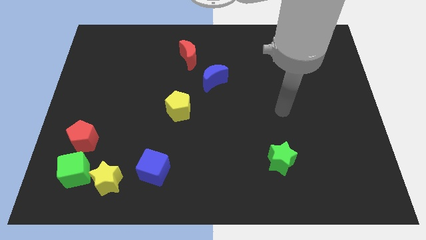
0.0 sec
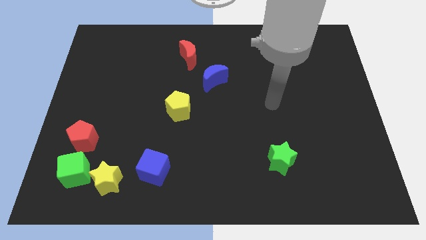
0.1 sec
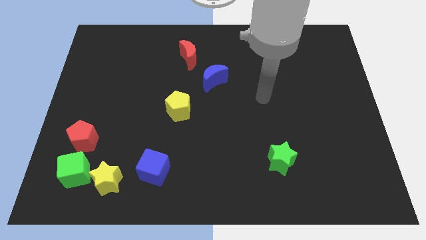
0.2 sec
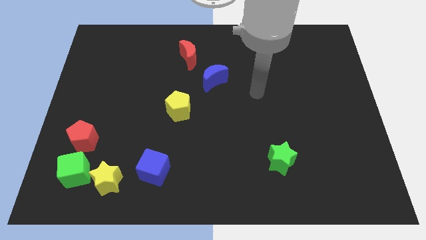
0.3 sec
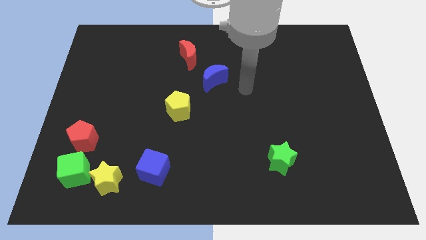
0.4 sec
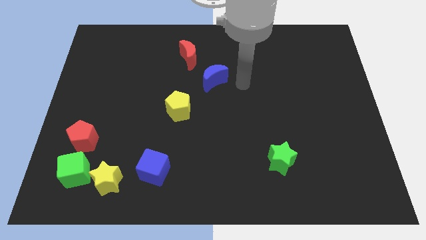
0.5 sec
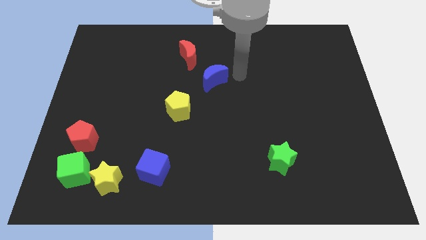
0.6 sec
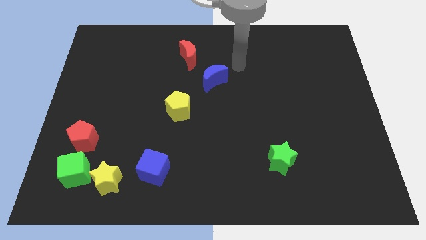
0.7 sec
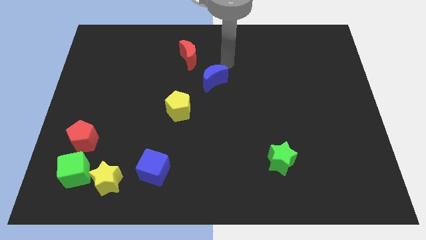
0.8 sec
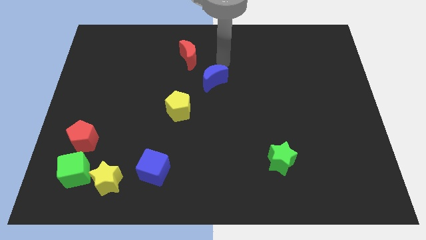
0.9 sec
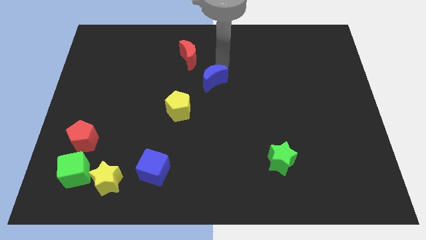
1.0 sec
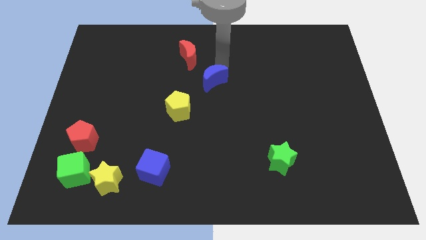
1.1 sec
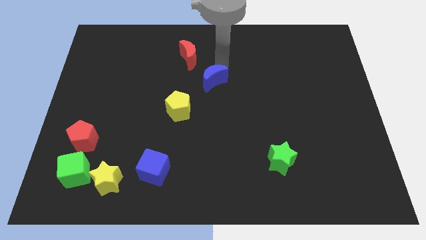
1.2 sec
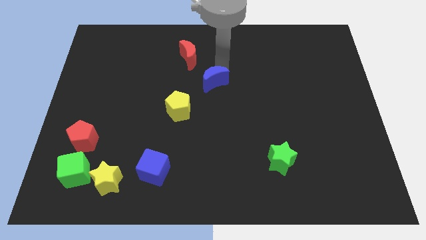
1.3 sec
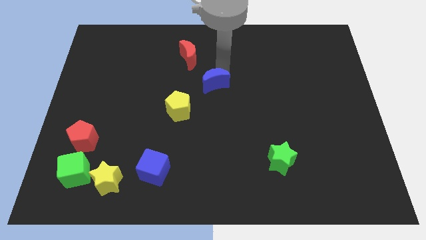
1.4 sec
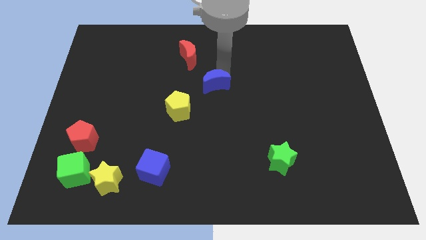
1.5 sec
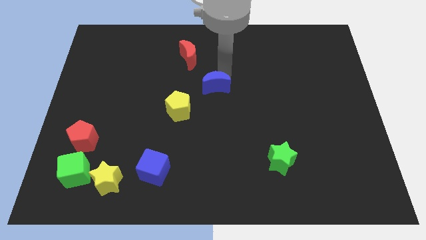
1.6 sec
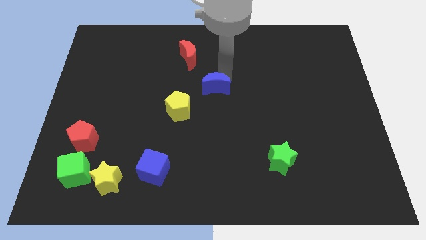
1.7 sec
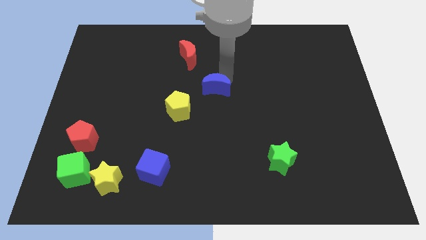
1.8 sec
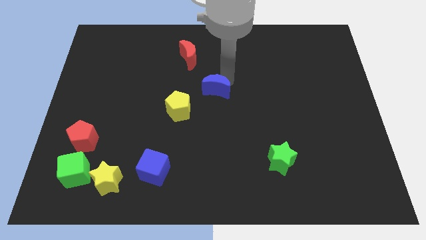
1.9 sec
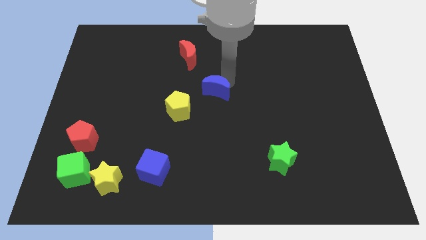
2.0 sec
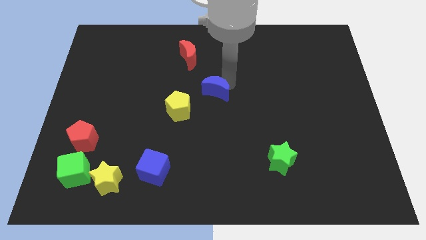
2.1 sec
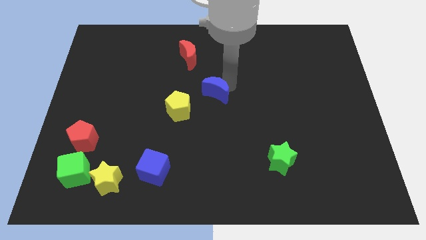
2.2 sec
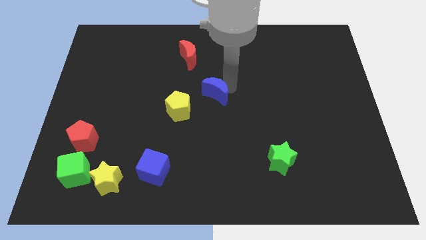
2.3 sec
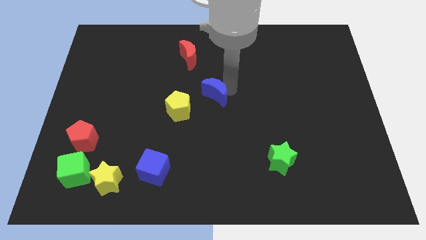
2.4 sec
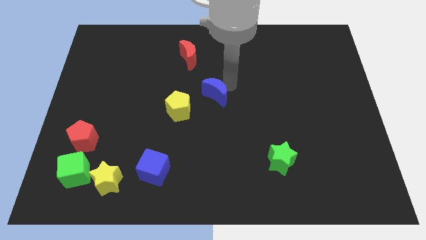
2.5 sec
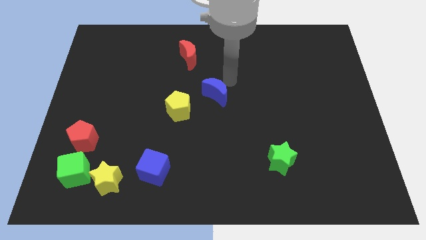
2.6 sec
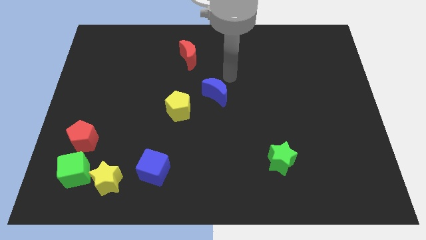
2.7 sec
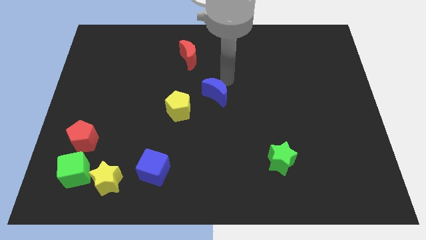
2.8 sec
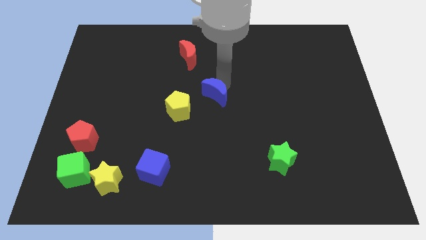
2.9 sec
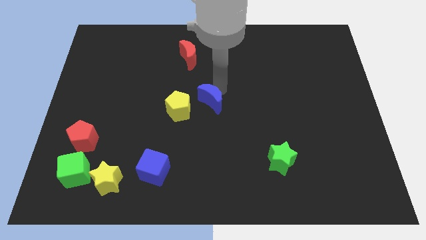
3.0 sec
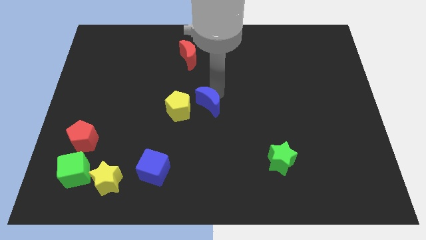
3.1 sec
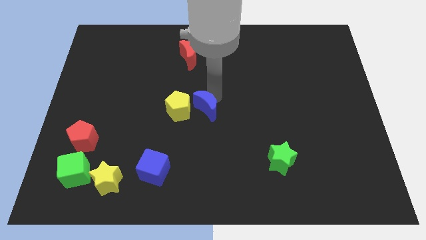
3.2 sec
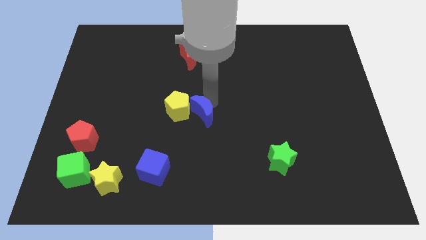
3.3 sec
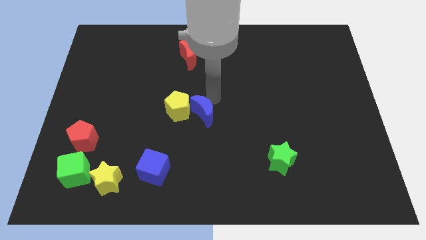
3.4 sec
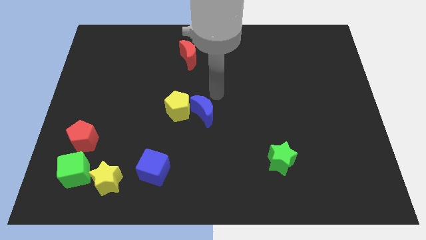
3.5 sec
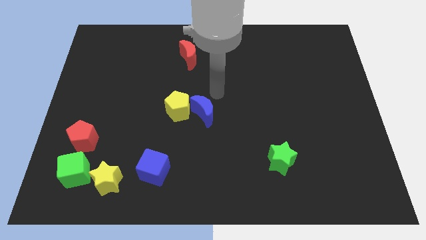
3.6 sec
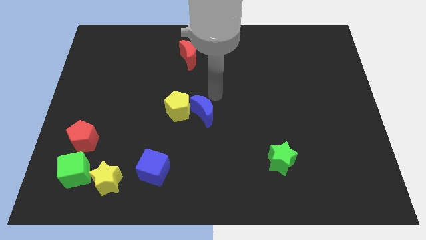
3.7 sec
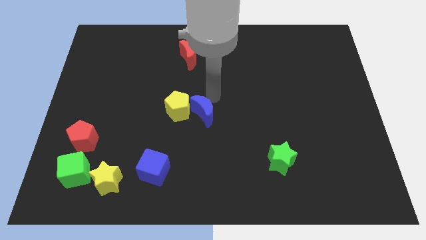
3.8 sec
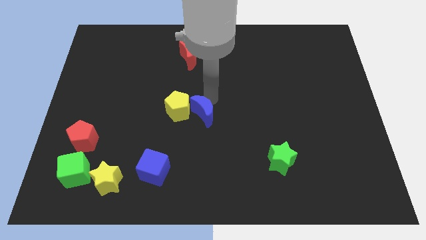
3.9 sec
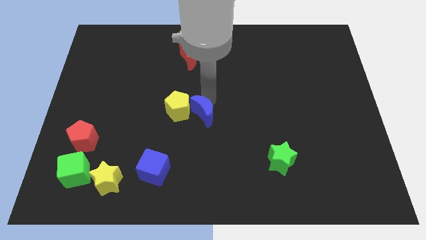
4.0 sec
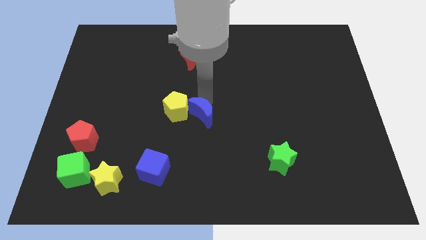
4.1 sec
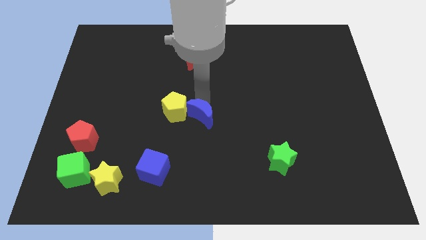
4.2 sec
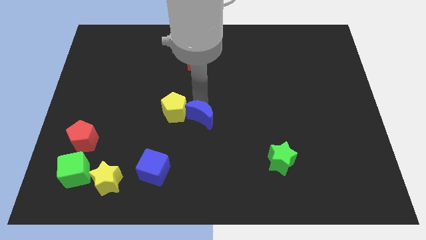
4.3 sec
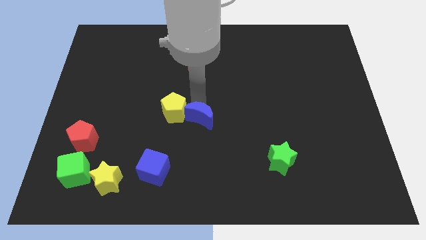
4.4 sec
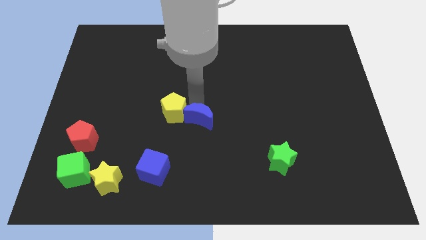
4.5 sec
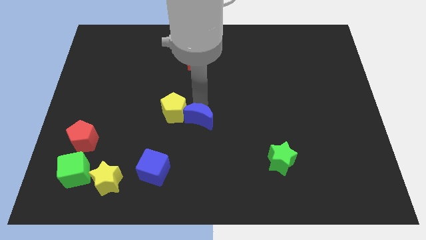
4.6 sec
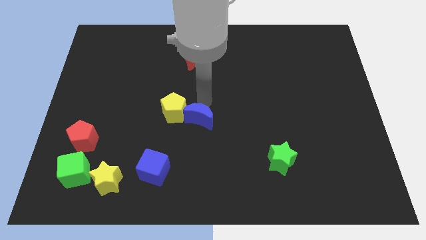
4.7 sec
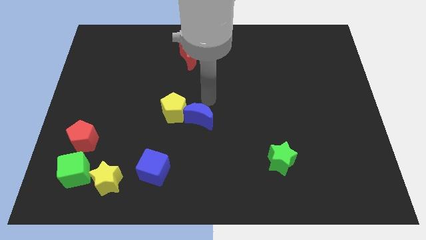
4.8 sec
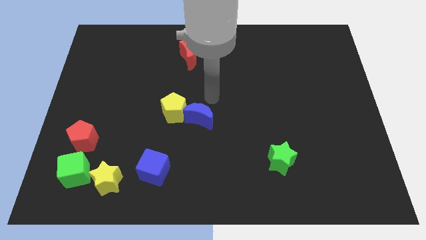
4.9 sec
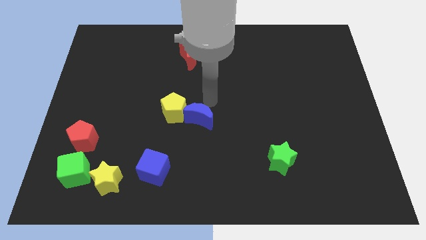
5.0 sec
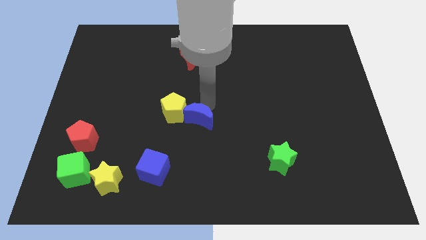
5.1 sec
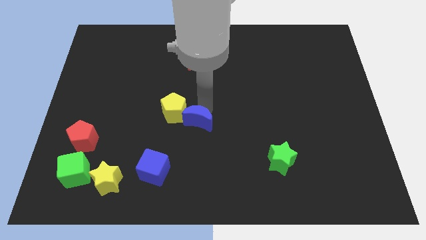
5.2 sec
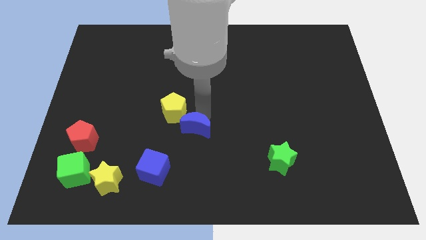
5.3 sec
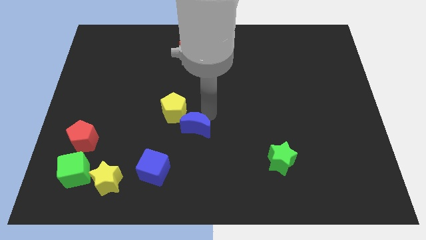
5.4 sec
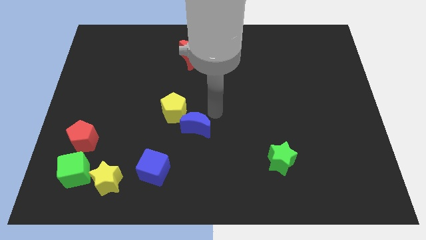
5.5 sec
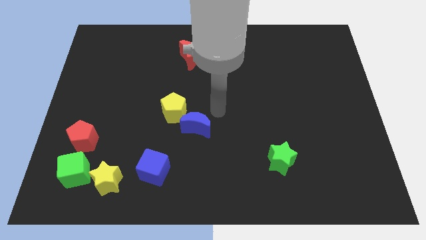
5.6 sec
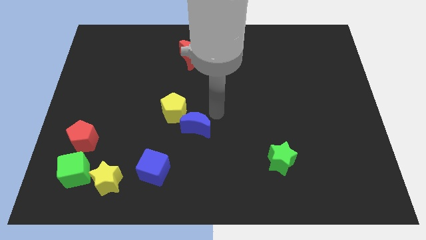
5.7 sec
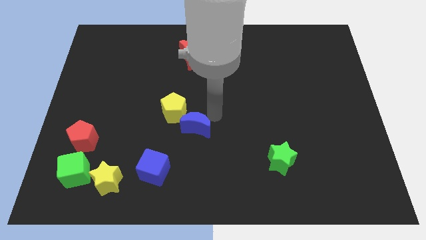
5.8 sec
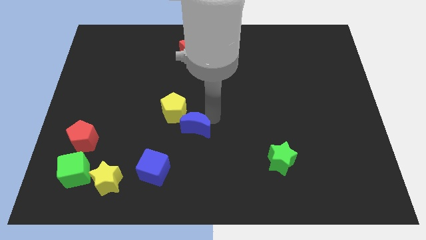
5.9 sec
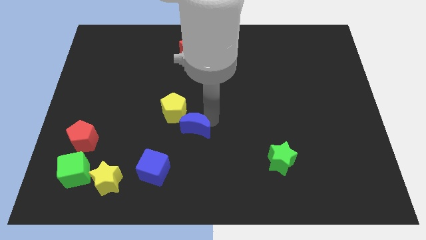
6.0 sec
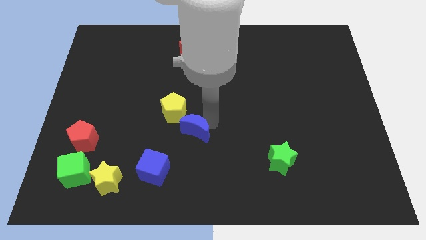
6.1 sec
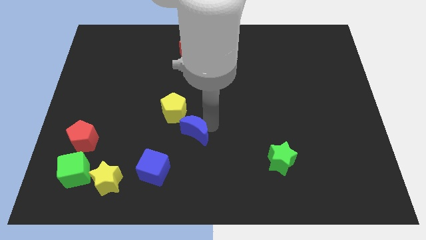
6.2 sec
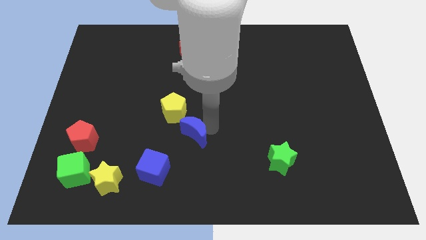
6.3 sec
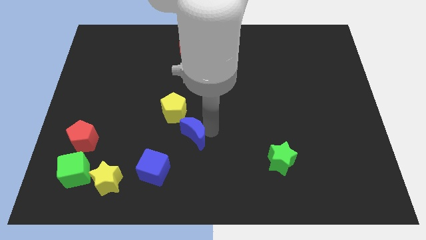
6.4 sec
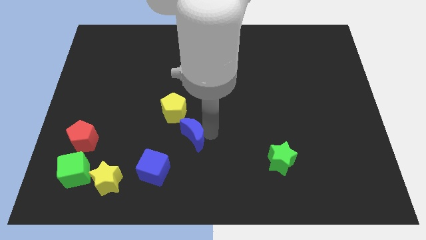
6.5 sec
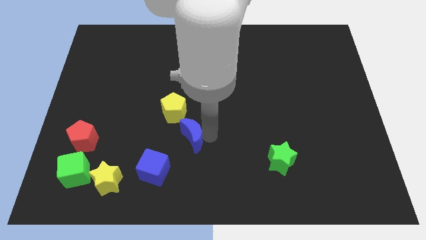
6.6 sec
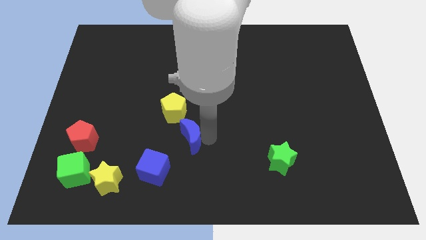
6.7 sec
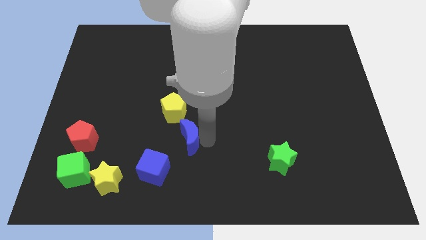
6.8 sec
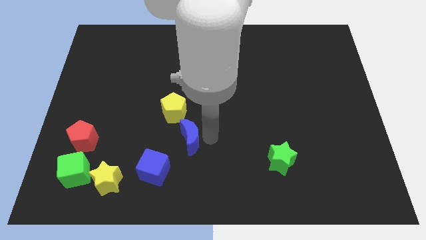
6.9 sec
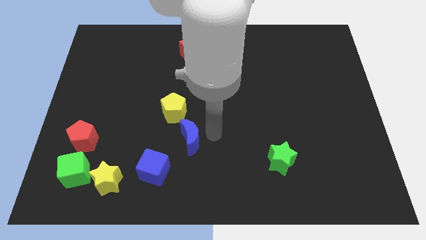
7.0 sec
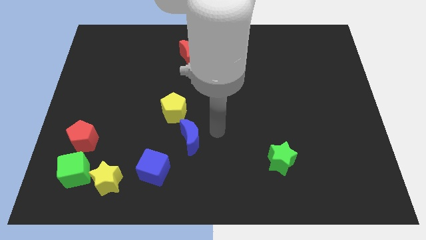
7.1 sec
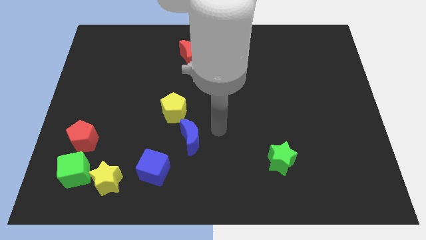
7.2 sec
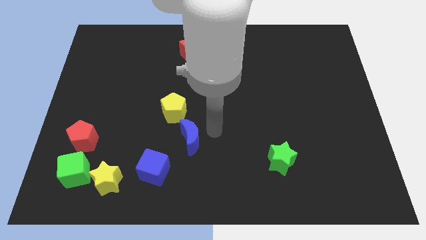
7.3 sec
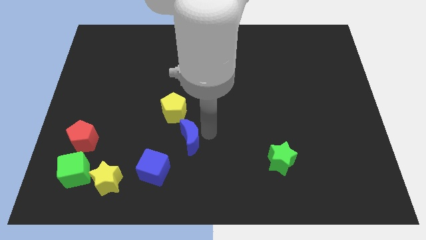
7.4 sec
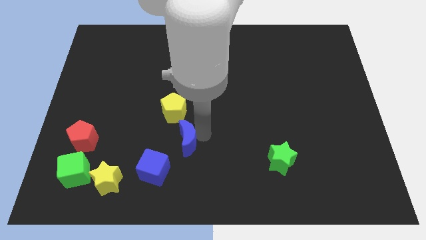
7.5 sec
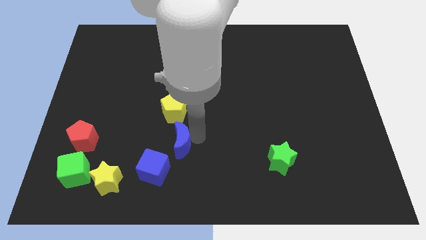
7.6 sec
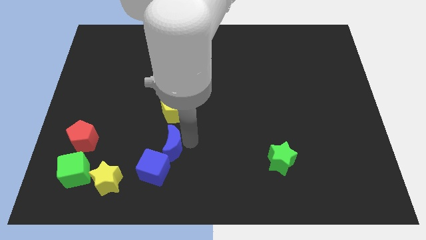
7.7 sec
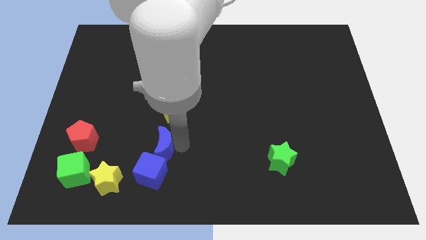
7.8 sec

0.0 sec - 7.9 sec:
push the blue moon down and then left

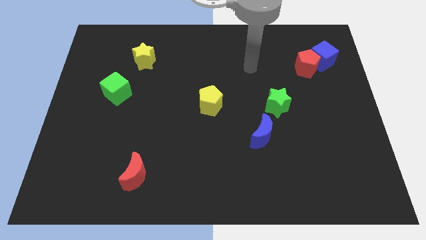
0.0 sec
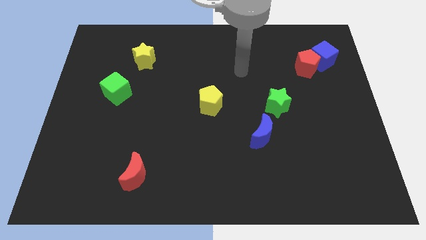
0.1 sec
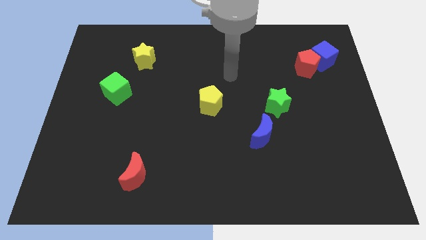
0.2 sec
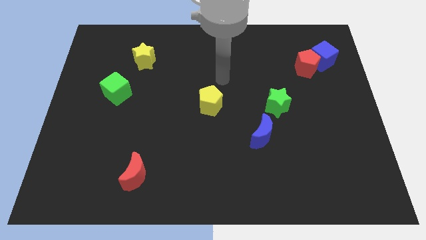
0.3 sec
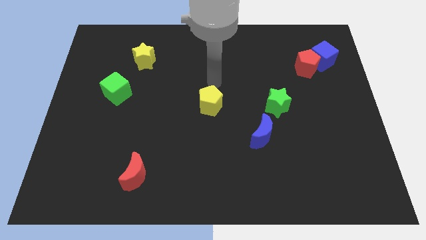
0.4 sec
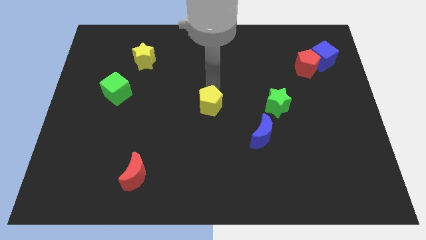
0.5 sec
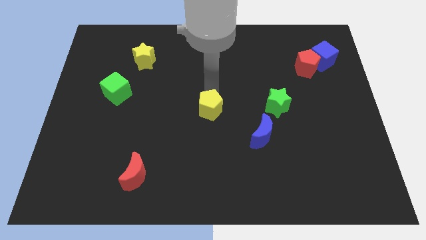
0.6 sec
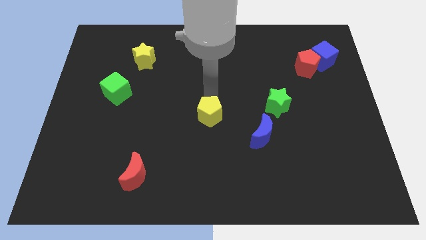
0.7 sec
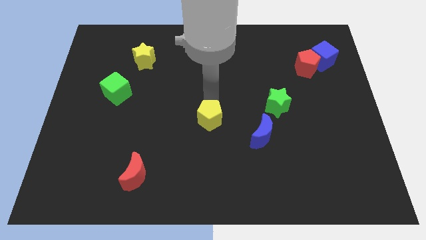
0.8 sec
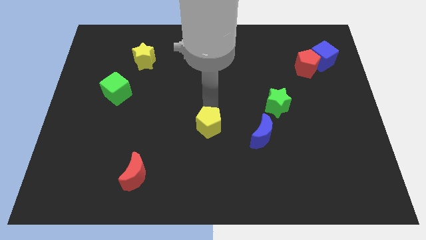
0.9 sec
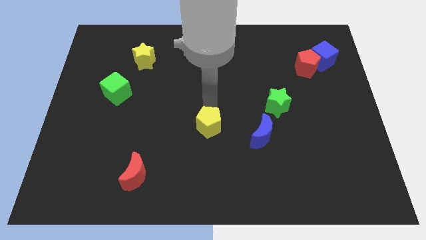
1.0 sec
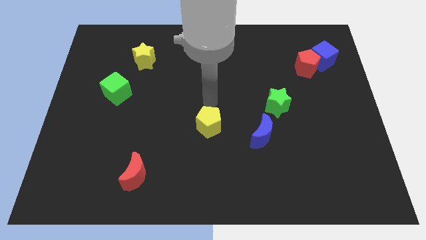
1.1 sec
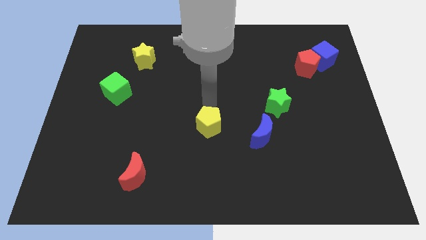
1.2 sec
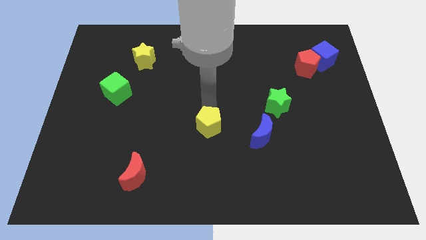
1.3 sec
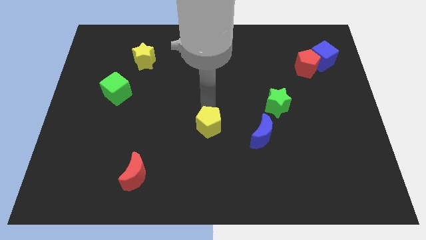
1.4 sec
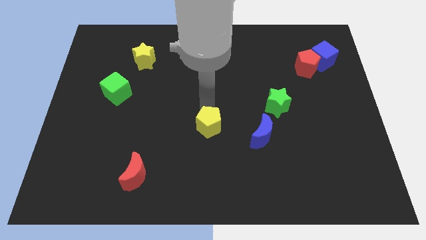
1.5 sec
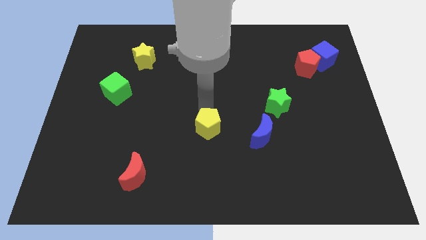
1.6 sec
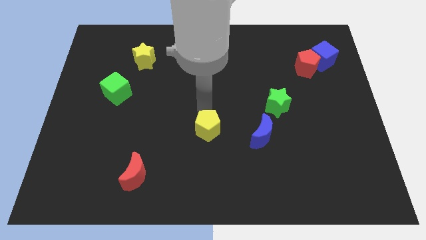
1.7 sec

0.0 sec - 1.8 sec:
move the yellow pentagon downwards a little bit
